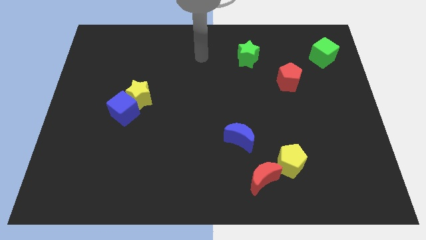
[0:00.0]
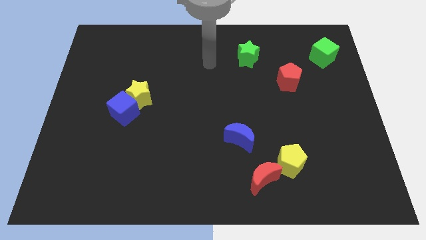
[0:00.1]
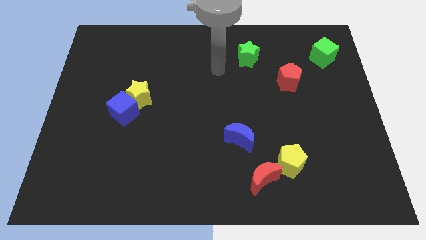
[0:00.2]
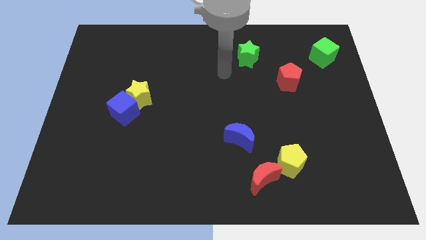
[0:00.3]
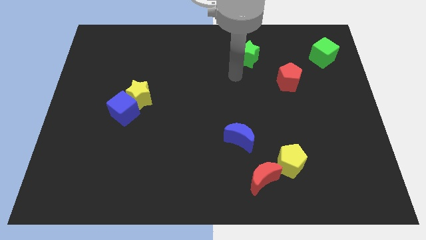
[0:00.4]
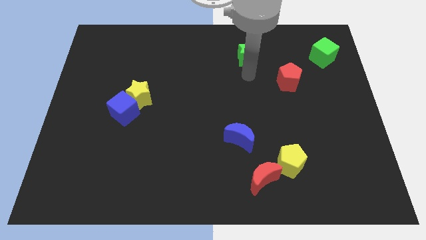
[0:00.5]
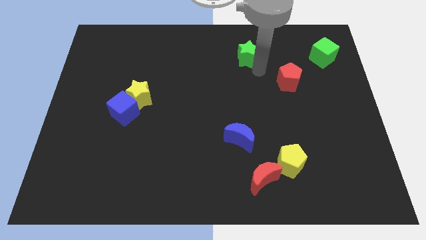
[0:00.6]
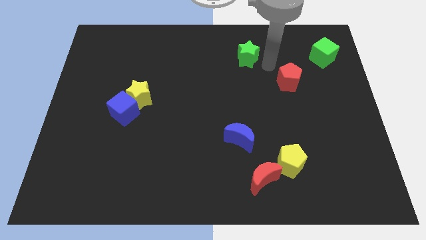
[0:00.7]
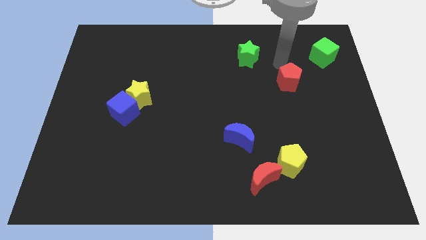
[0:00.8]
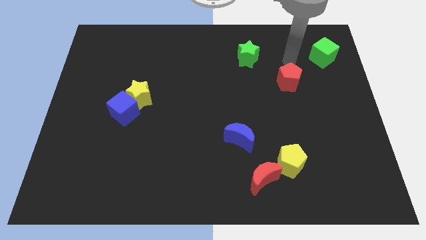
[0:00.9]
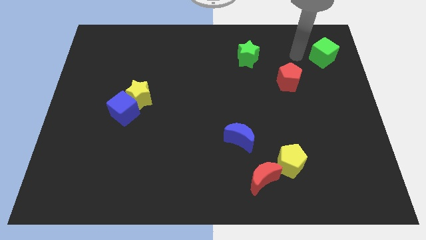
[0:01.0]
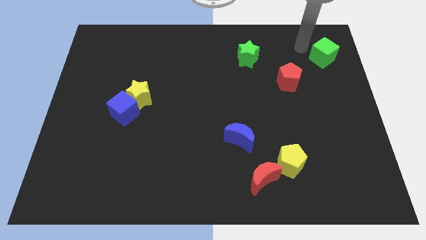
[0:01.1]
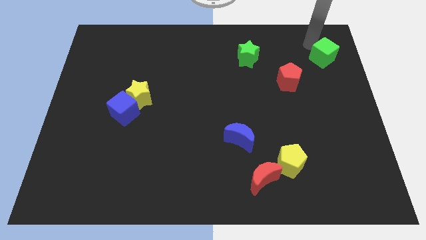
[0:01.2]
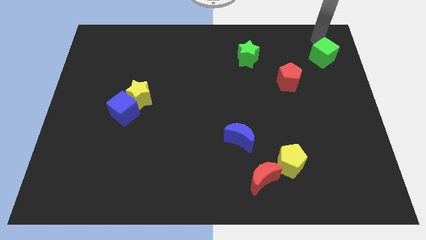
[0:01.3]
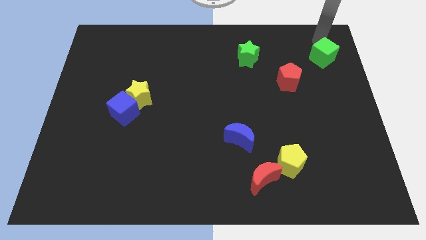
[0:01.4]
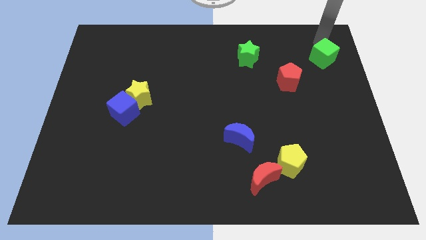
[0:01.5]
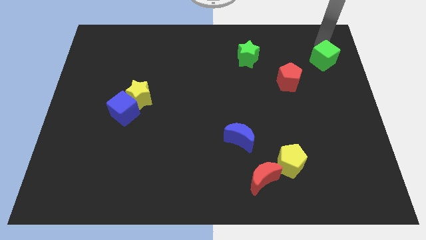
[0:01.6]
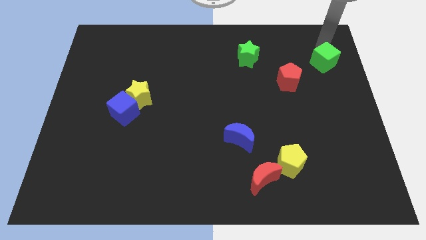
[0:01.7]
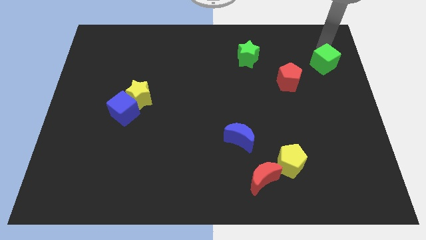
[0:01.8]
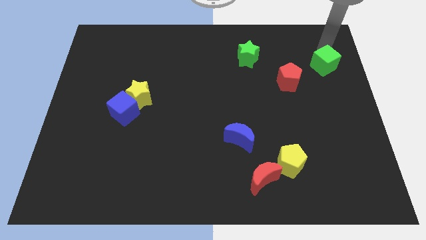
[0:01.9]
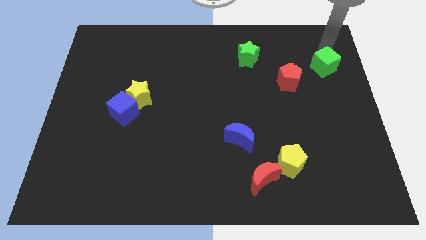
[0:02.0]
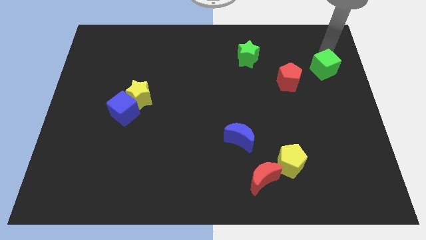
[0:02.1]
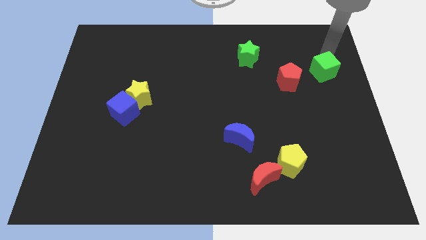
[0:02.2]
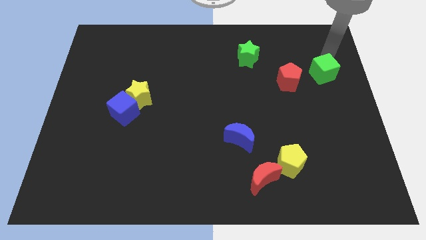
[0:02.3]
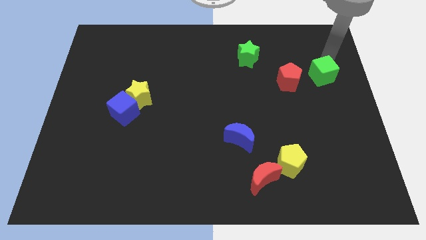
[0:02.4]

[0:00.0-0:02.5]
slightly slide the green cube down

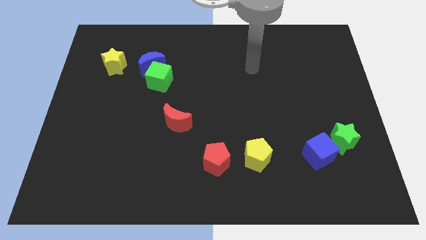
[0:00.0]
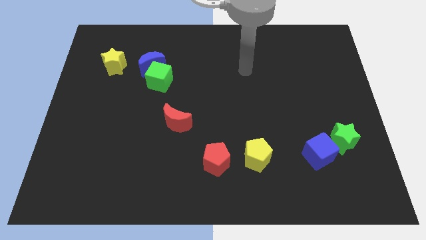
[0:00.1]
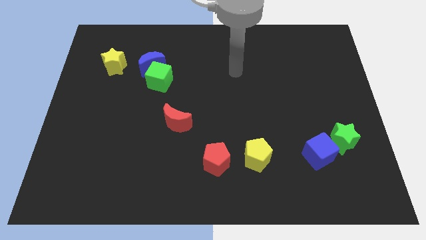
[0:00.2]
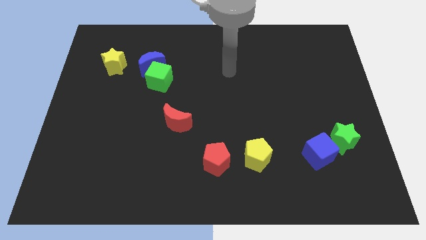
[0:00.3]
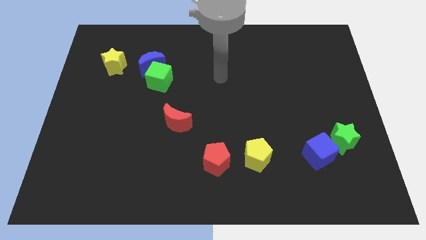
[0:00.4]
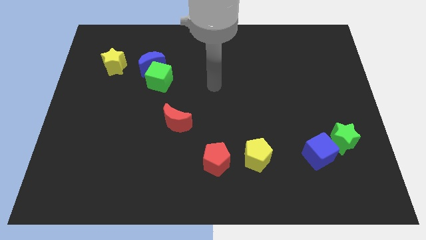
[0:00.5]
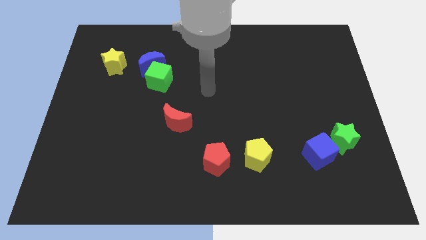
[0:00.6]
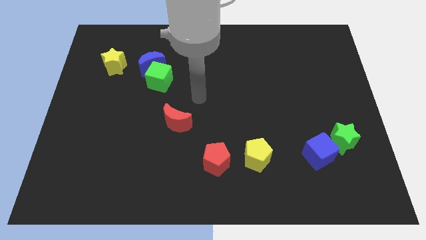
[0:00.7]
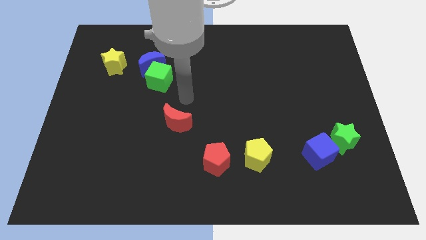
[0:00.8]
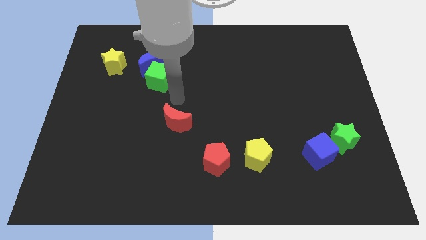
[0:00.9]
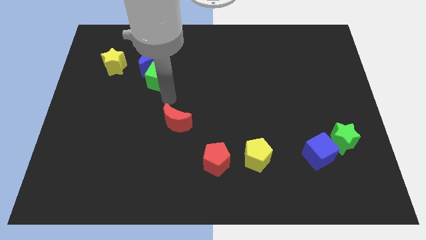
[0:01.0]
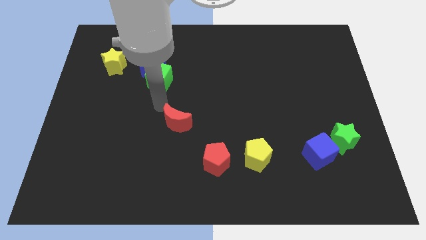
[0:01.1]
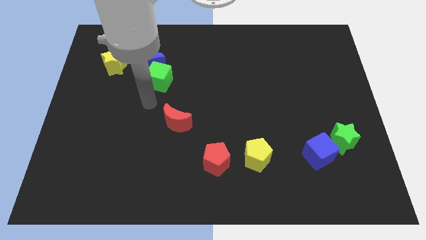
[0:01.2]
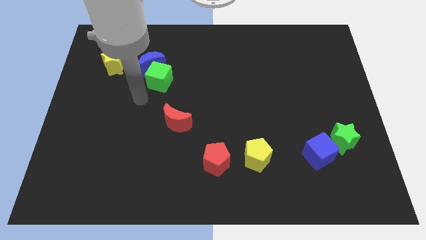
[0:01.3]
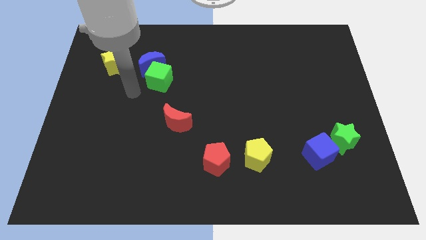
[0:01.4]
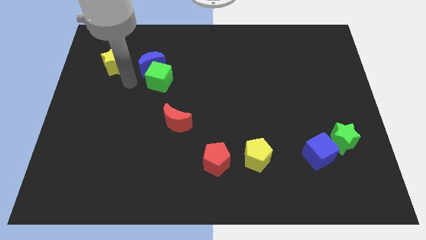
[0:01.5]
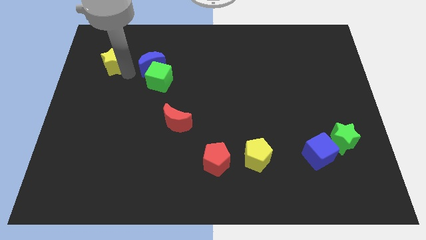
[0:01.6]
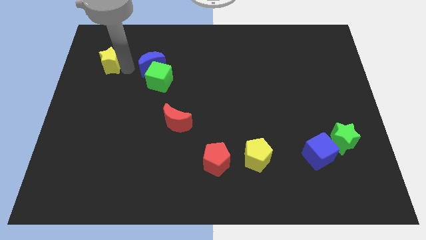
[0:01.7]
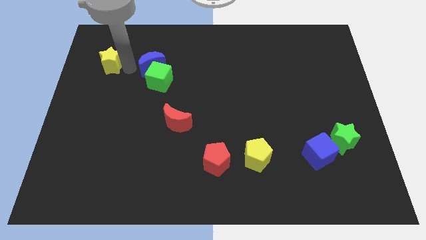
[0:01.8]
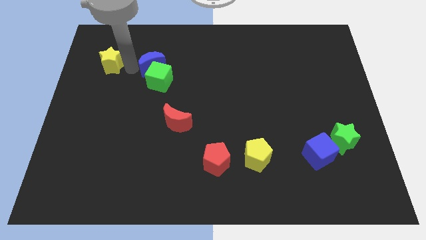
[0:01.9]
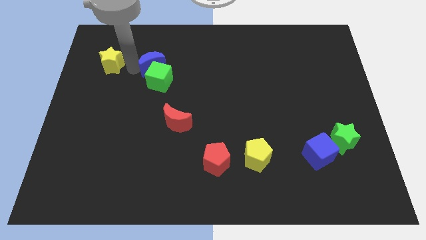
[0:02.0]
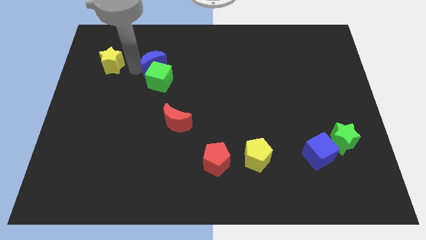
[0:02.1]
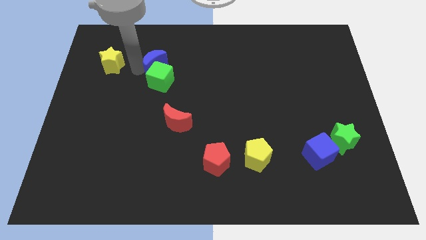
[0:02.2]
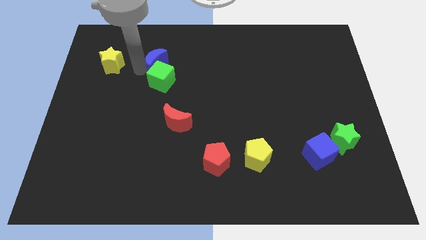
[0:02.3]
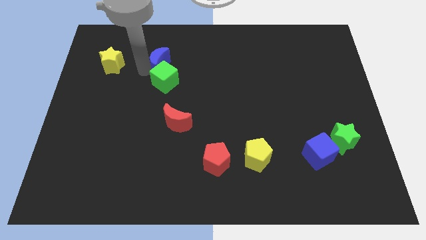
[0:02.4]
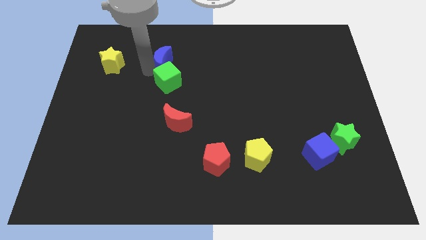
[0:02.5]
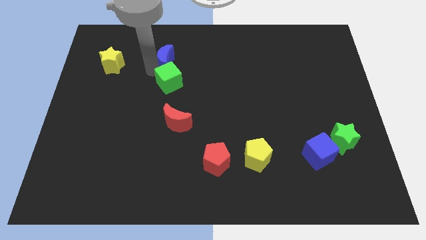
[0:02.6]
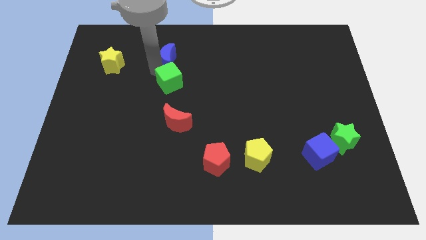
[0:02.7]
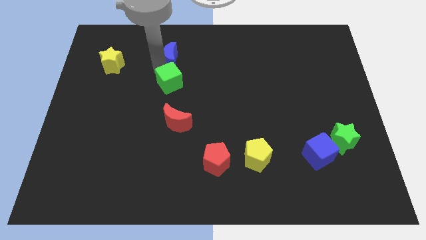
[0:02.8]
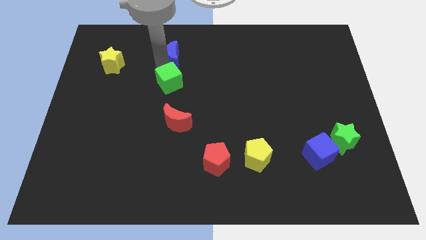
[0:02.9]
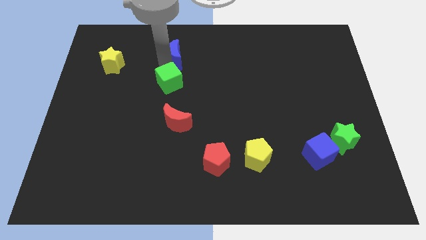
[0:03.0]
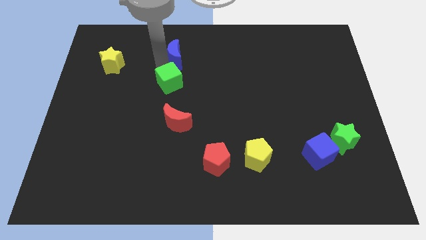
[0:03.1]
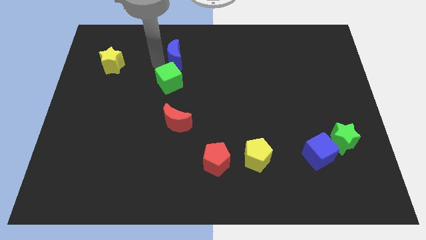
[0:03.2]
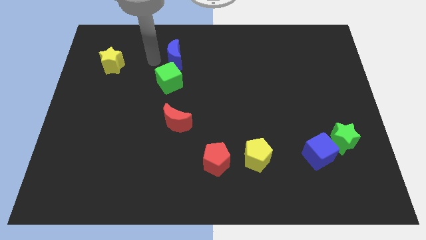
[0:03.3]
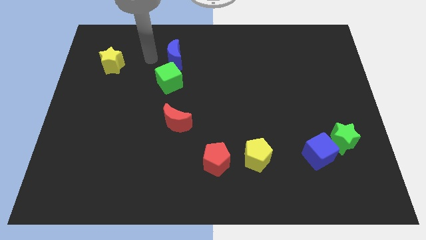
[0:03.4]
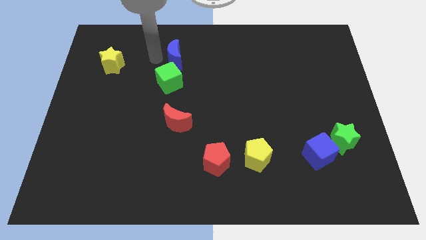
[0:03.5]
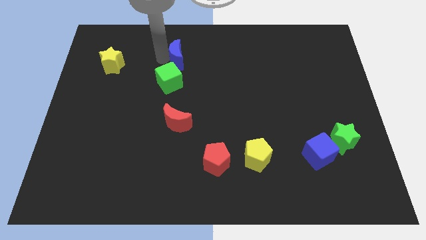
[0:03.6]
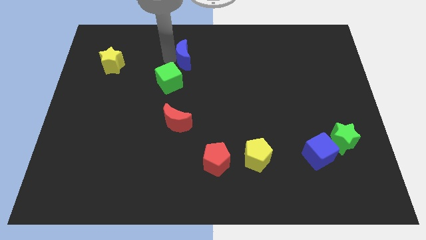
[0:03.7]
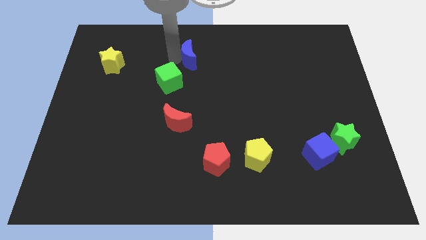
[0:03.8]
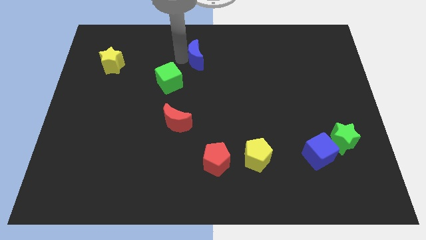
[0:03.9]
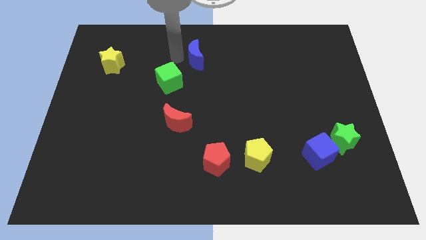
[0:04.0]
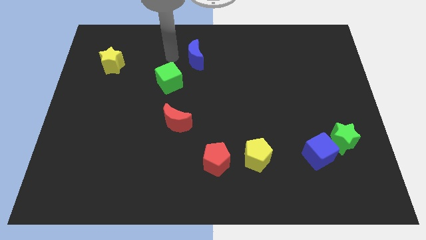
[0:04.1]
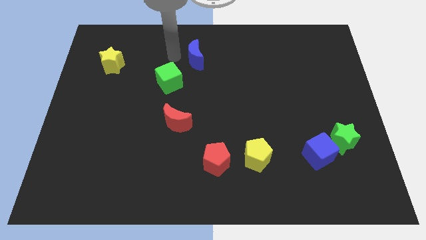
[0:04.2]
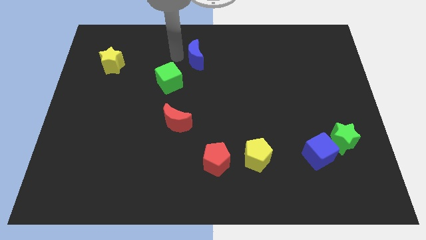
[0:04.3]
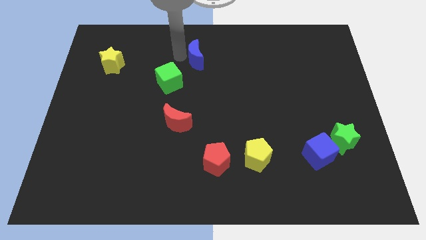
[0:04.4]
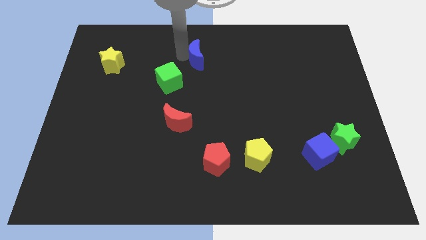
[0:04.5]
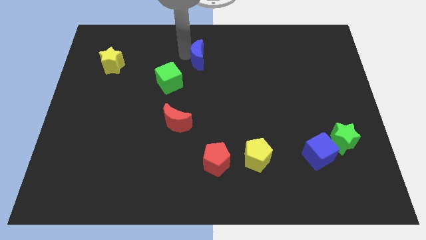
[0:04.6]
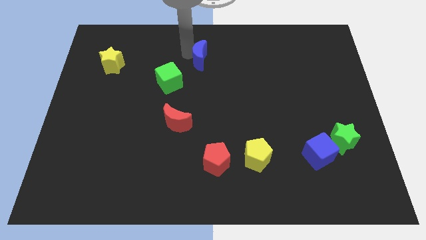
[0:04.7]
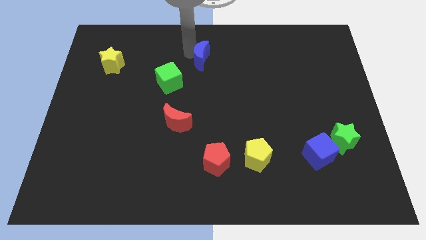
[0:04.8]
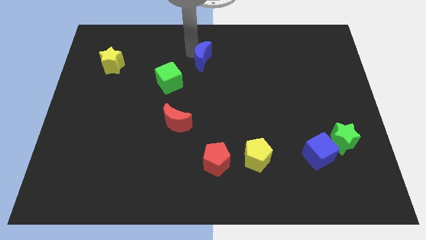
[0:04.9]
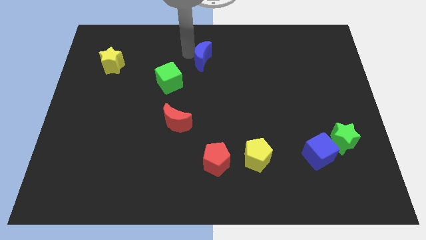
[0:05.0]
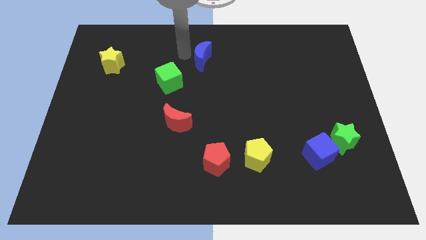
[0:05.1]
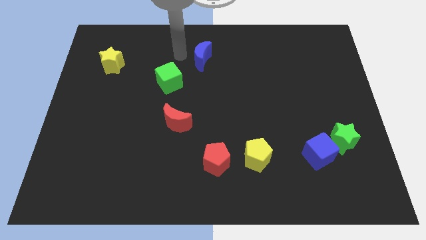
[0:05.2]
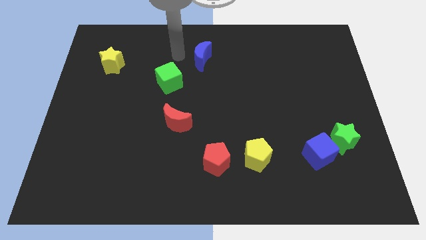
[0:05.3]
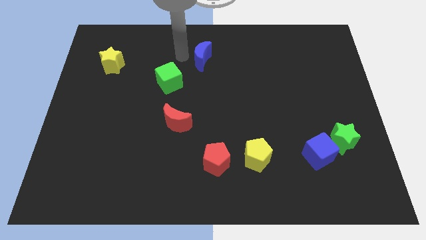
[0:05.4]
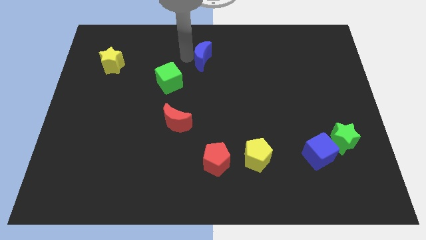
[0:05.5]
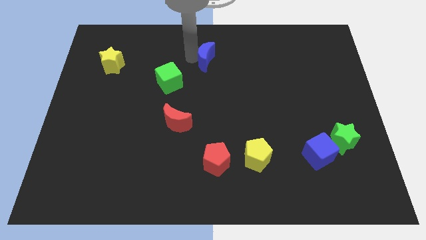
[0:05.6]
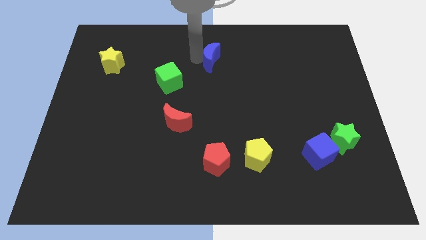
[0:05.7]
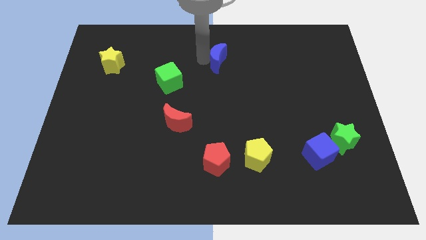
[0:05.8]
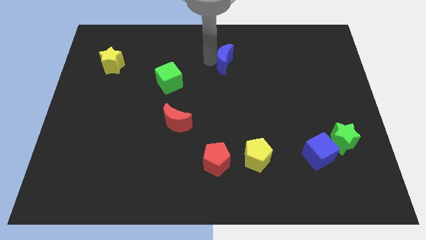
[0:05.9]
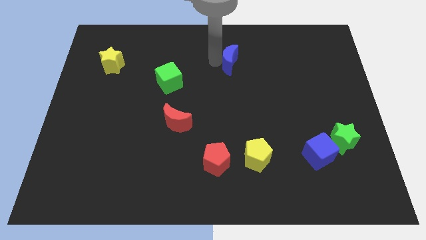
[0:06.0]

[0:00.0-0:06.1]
slide the blue moon to the right
